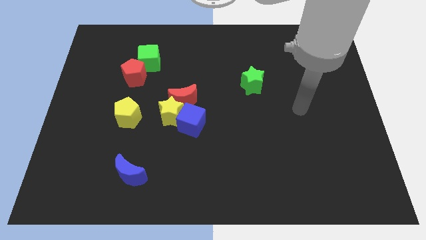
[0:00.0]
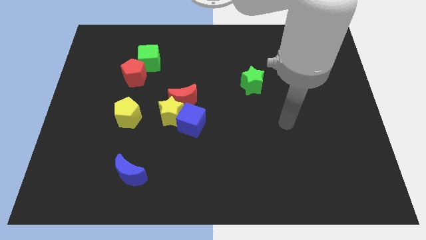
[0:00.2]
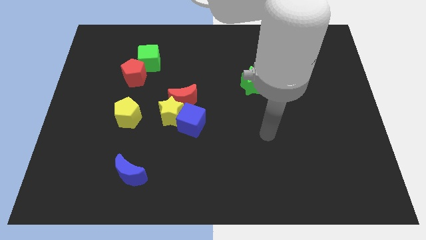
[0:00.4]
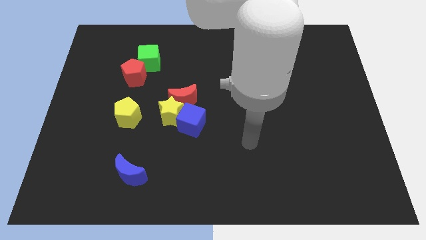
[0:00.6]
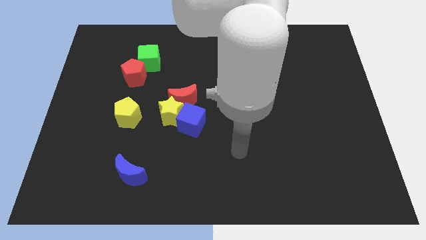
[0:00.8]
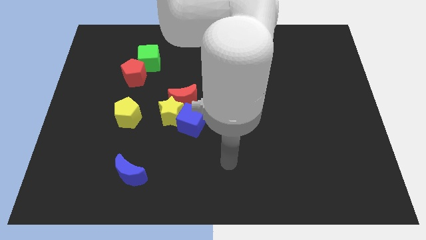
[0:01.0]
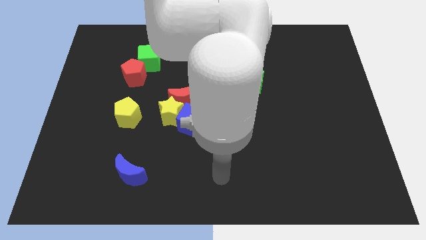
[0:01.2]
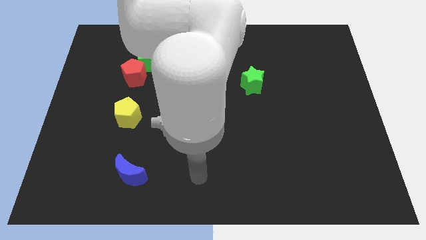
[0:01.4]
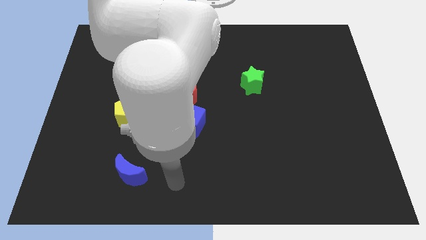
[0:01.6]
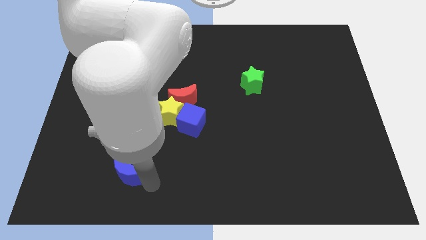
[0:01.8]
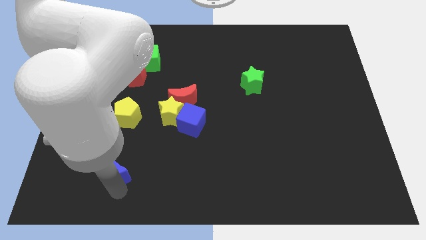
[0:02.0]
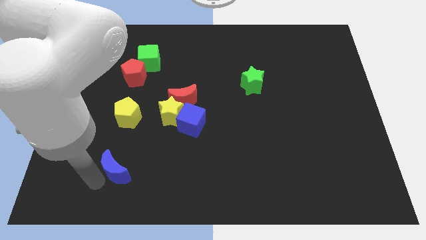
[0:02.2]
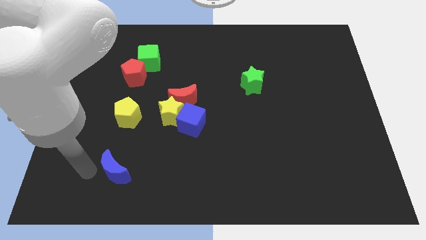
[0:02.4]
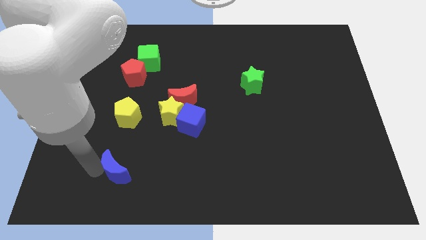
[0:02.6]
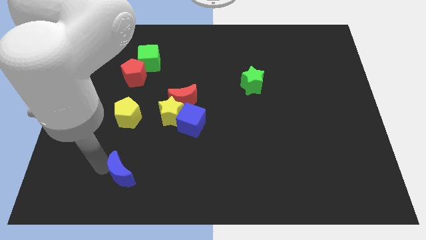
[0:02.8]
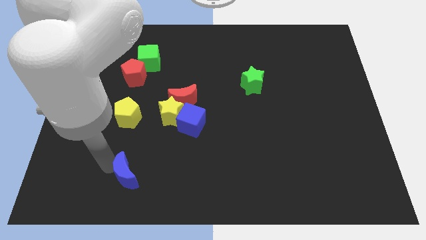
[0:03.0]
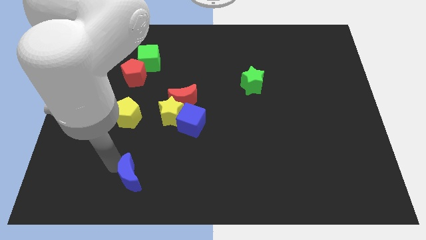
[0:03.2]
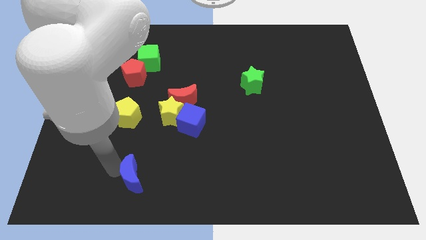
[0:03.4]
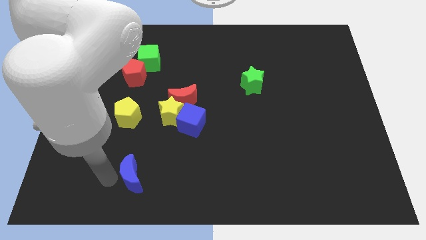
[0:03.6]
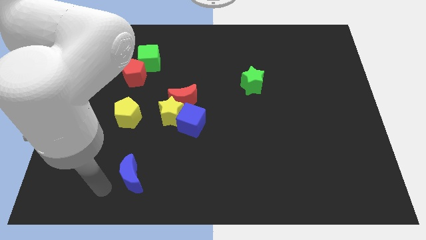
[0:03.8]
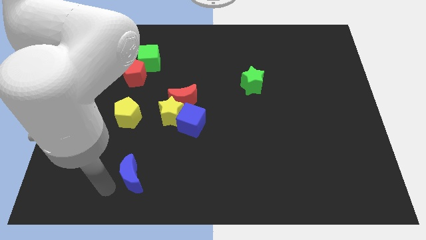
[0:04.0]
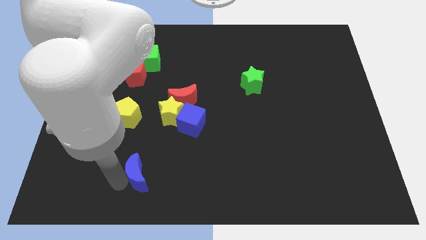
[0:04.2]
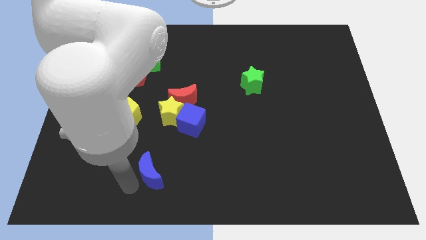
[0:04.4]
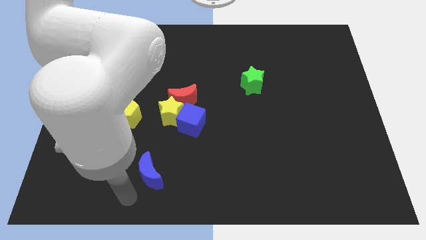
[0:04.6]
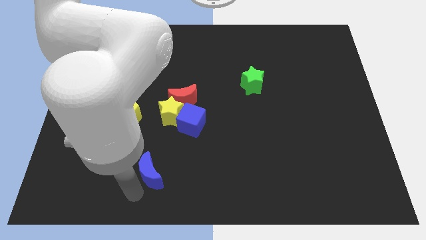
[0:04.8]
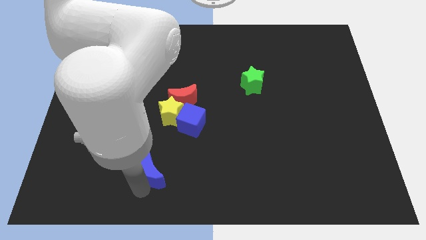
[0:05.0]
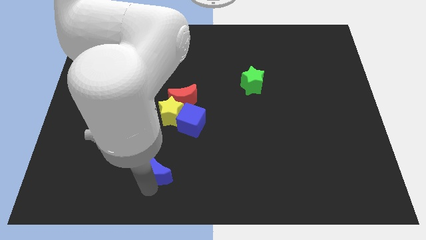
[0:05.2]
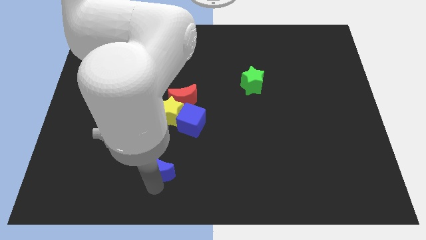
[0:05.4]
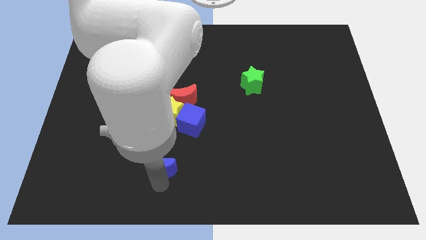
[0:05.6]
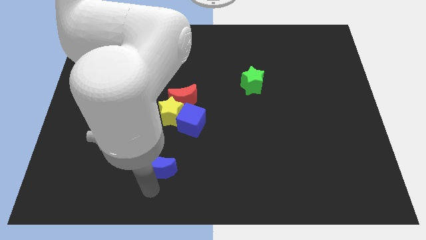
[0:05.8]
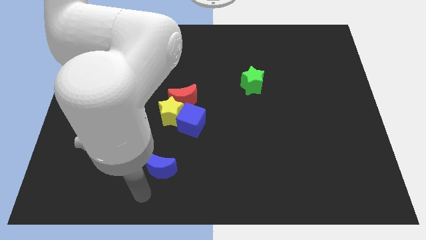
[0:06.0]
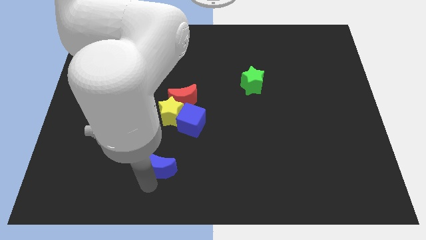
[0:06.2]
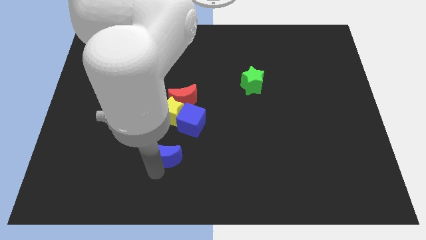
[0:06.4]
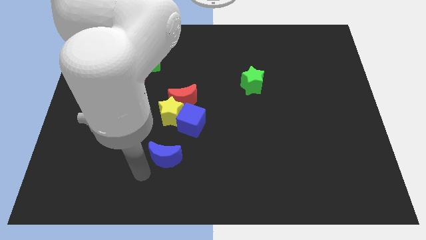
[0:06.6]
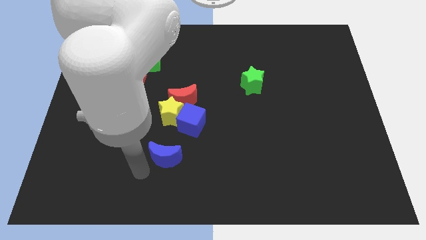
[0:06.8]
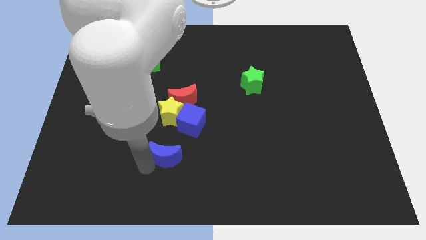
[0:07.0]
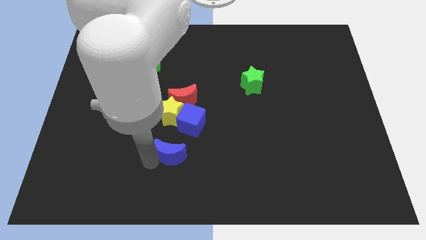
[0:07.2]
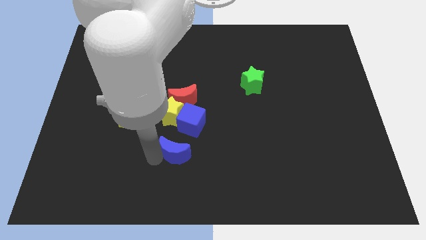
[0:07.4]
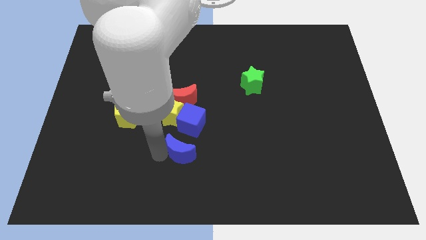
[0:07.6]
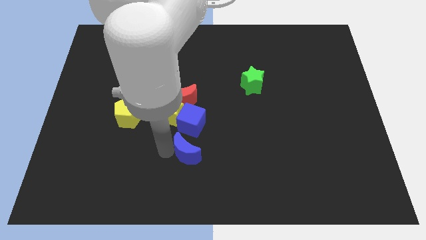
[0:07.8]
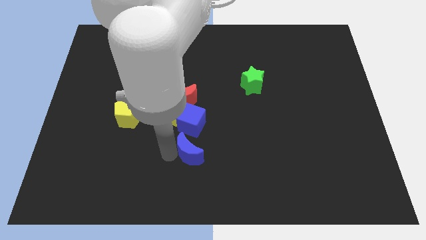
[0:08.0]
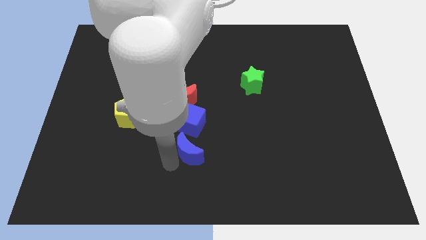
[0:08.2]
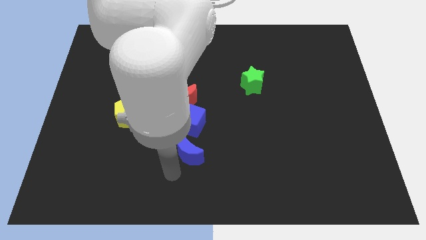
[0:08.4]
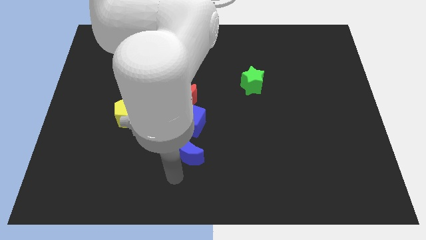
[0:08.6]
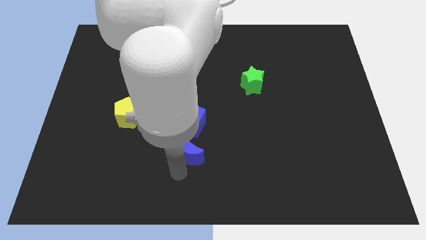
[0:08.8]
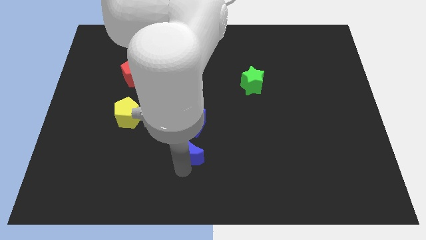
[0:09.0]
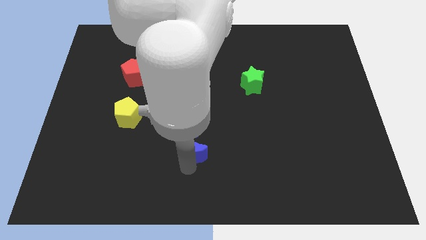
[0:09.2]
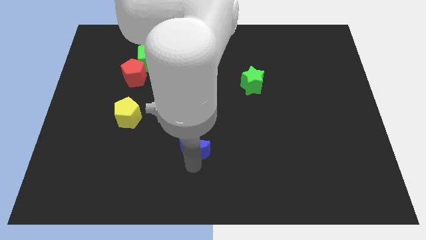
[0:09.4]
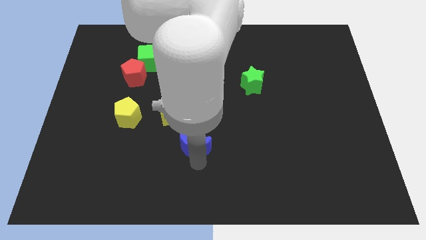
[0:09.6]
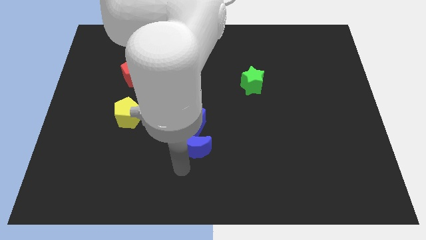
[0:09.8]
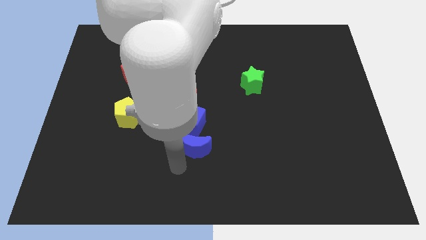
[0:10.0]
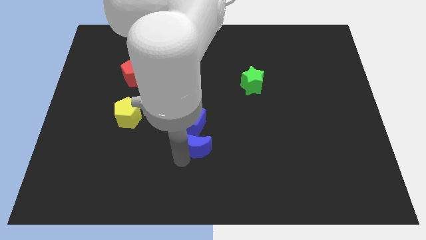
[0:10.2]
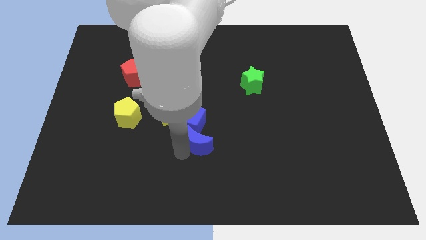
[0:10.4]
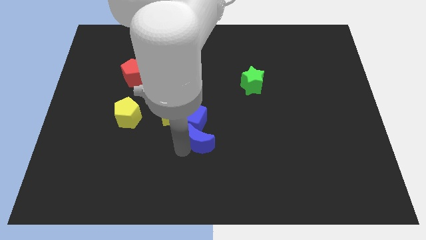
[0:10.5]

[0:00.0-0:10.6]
put the blue moon to the center
